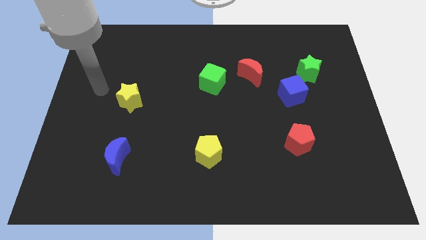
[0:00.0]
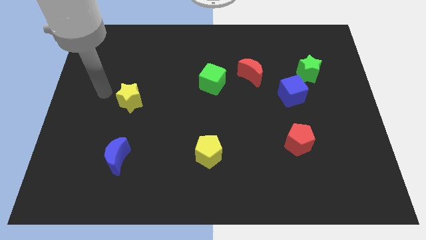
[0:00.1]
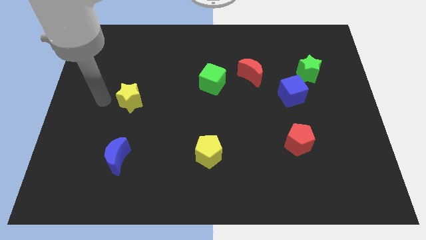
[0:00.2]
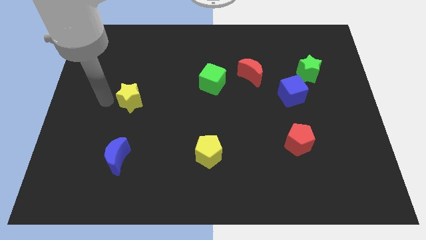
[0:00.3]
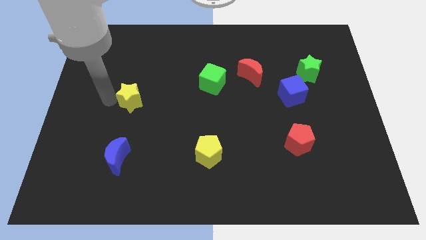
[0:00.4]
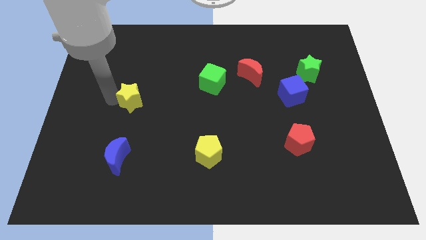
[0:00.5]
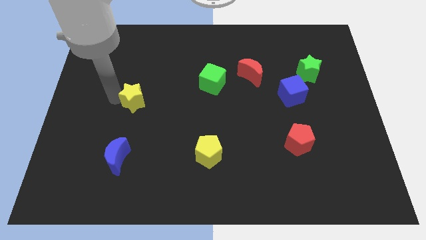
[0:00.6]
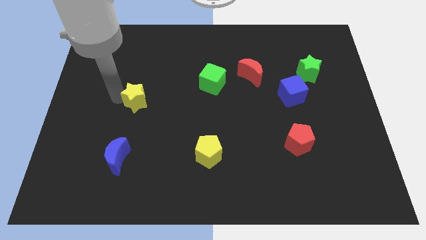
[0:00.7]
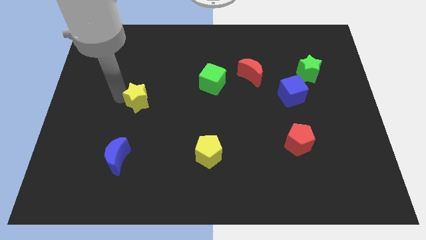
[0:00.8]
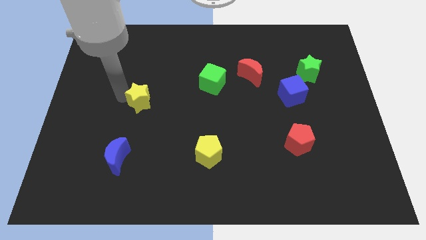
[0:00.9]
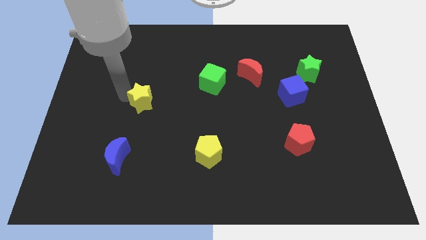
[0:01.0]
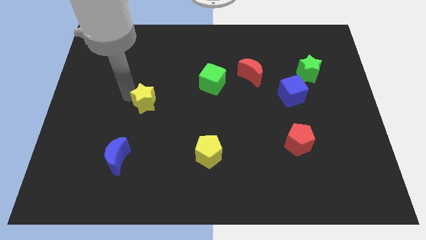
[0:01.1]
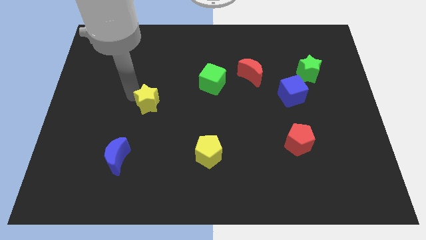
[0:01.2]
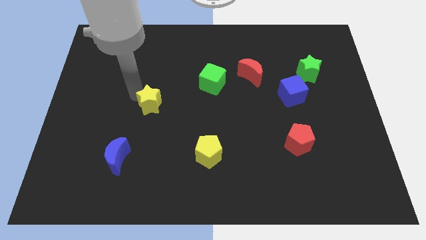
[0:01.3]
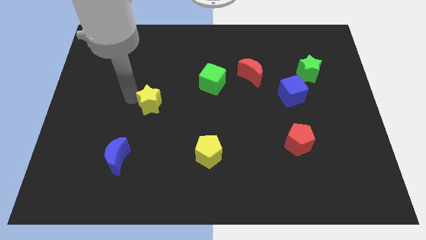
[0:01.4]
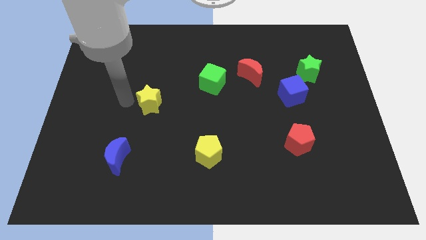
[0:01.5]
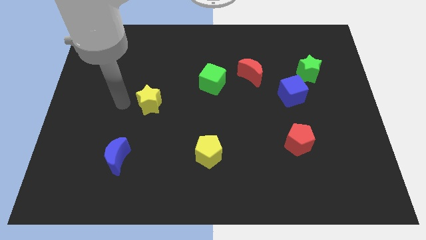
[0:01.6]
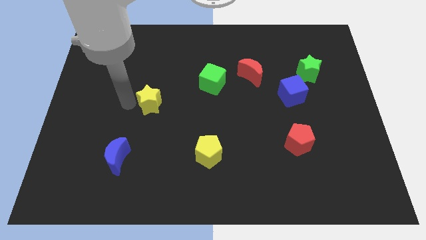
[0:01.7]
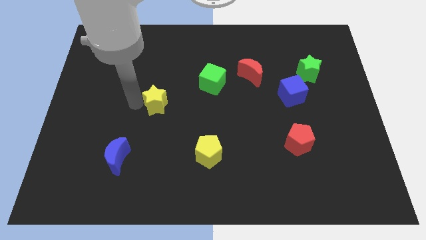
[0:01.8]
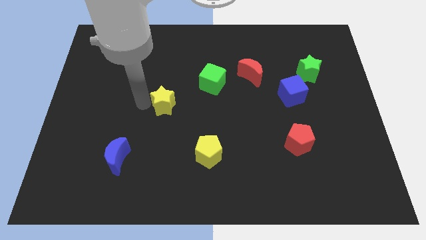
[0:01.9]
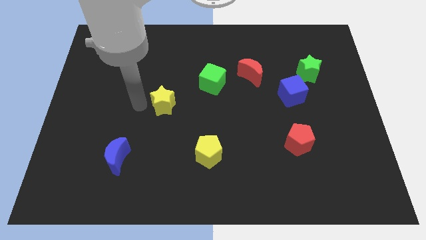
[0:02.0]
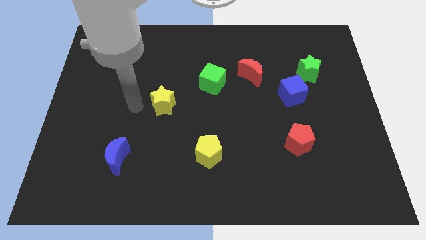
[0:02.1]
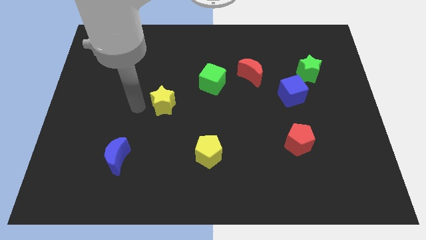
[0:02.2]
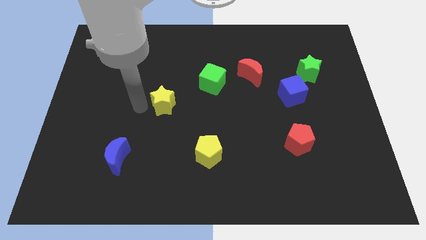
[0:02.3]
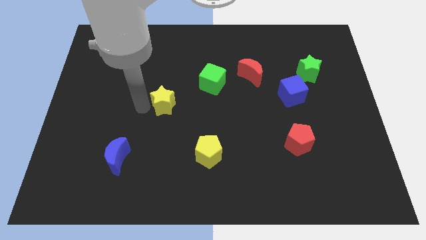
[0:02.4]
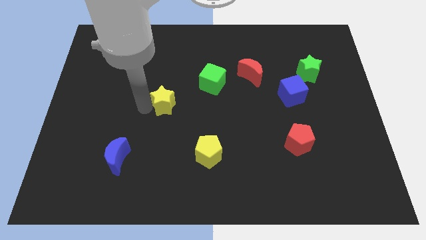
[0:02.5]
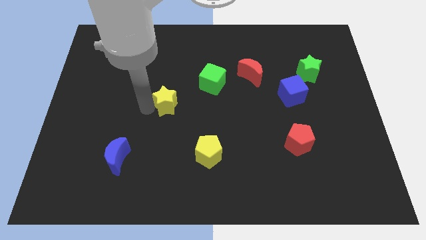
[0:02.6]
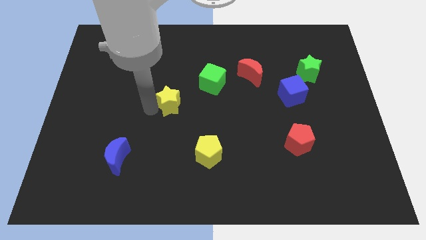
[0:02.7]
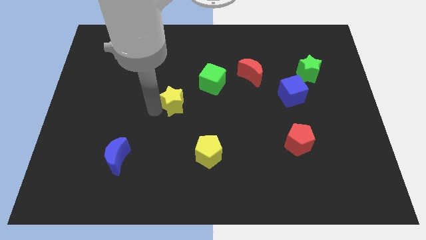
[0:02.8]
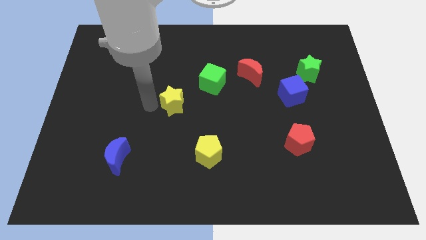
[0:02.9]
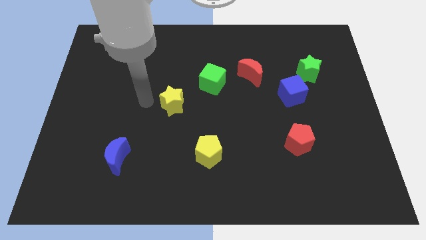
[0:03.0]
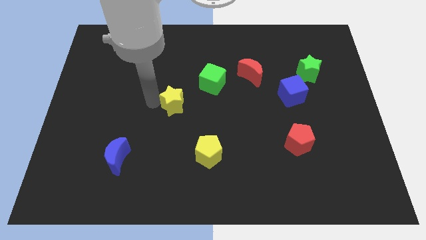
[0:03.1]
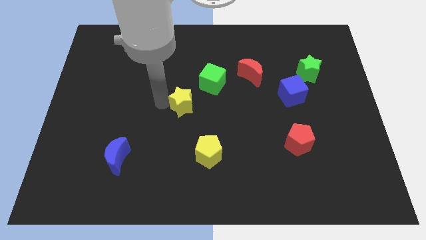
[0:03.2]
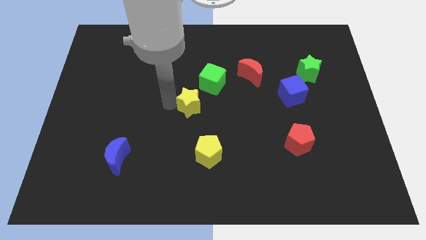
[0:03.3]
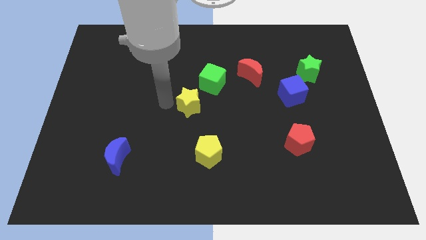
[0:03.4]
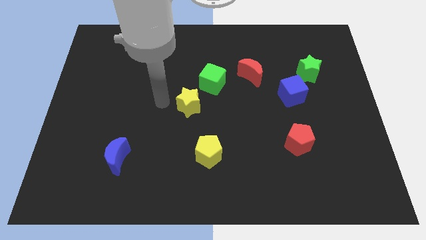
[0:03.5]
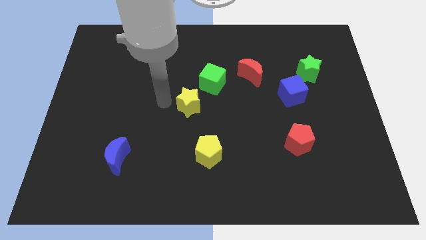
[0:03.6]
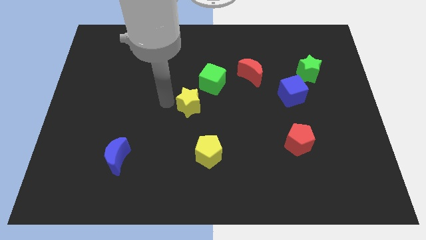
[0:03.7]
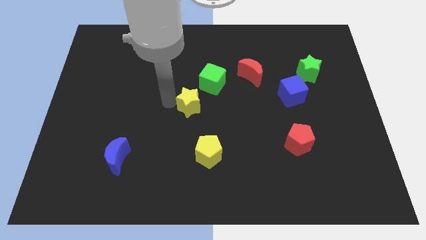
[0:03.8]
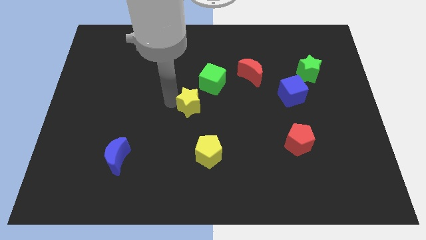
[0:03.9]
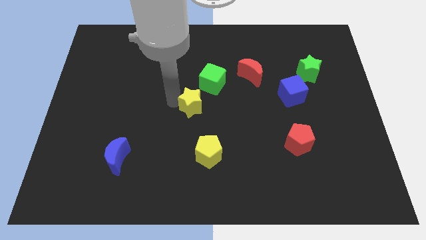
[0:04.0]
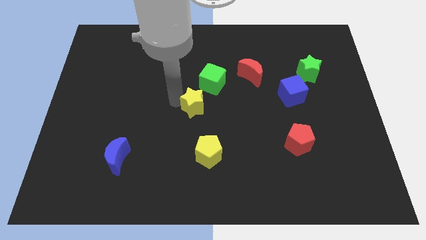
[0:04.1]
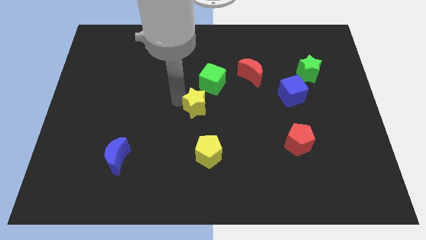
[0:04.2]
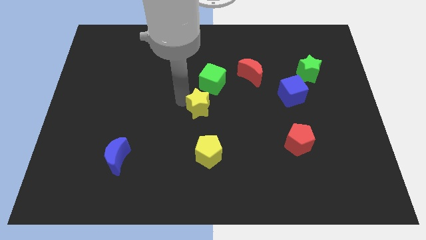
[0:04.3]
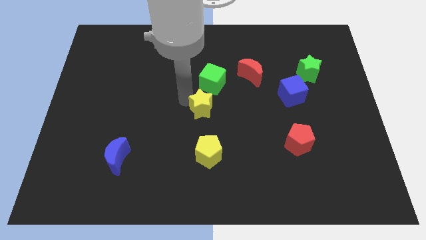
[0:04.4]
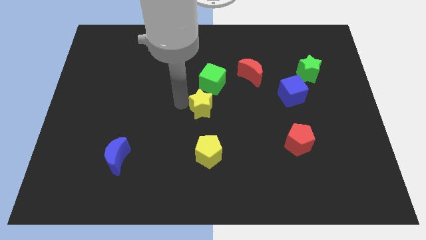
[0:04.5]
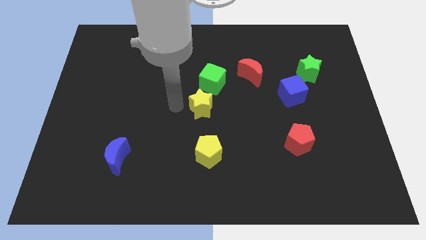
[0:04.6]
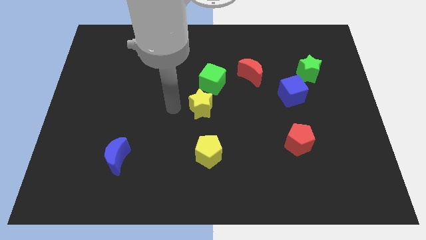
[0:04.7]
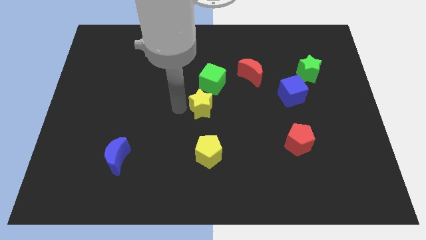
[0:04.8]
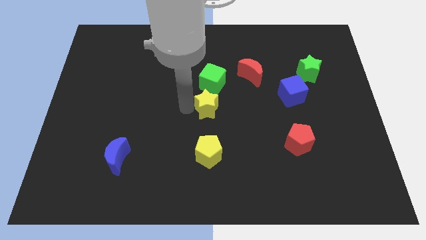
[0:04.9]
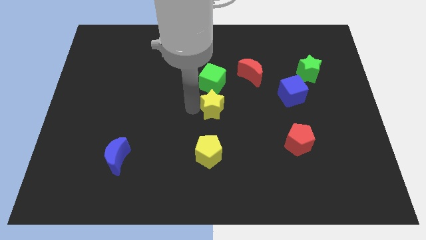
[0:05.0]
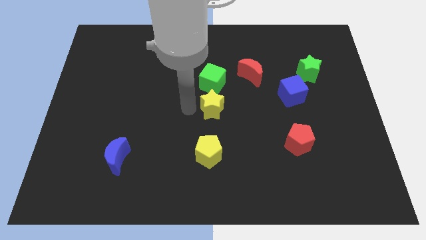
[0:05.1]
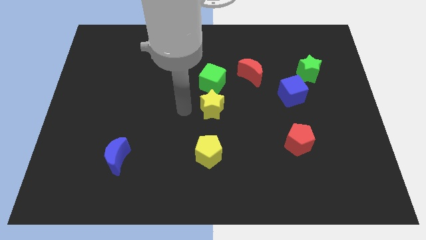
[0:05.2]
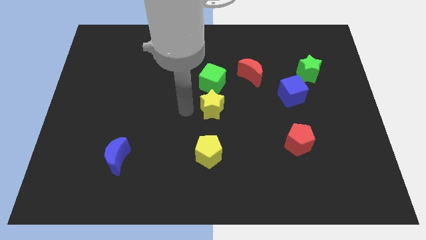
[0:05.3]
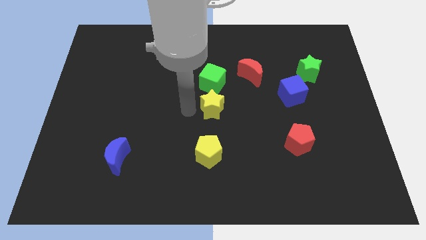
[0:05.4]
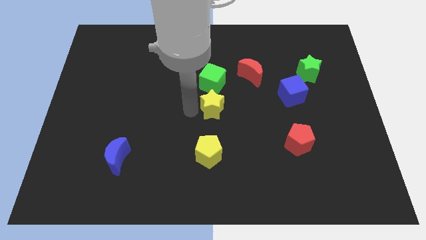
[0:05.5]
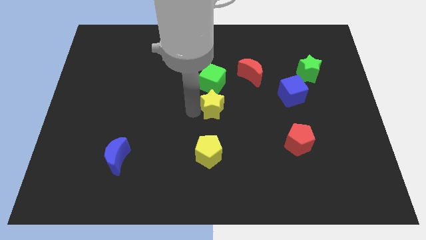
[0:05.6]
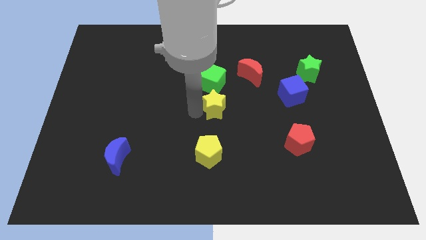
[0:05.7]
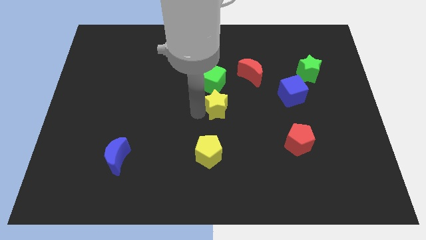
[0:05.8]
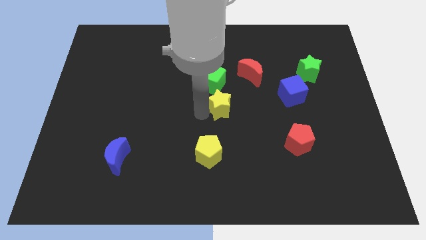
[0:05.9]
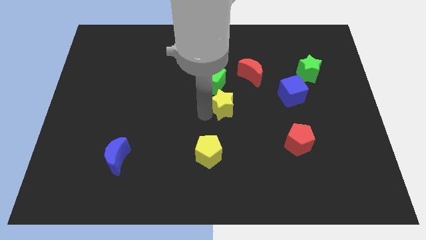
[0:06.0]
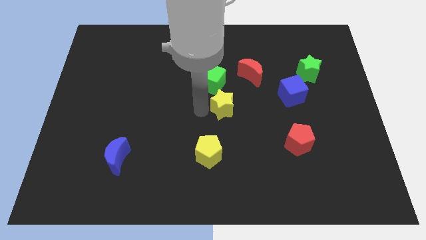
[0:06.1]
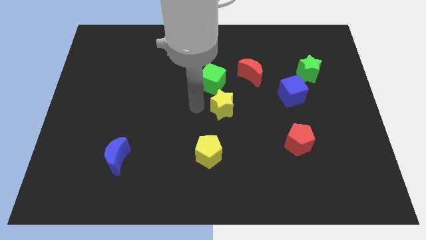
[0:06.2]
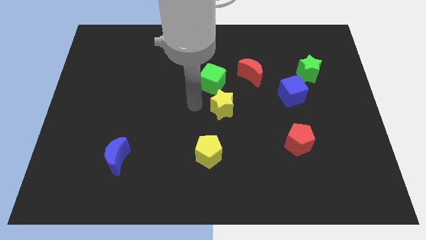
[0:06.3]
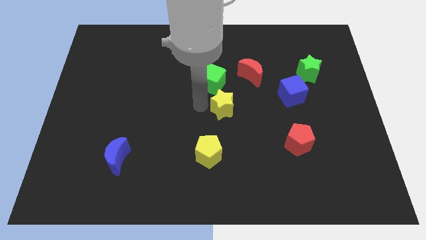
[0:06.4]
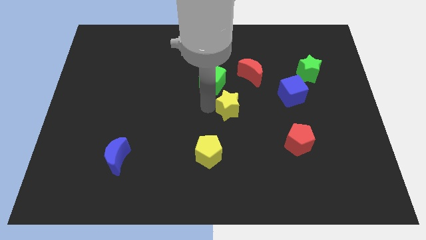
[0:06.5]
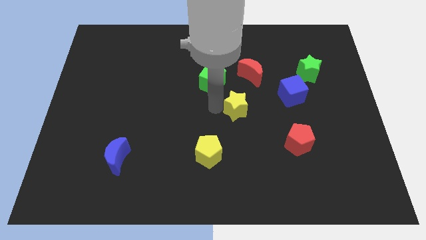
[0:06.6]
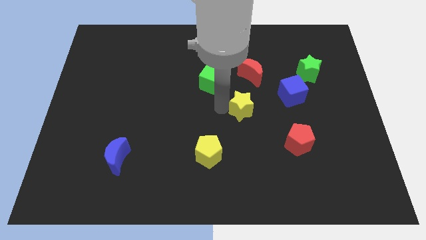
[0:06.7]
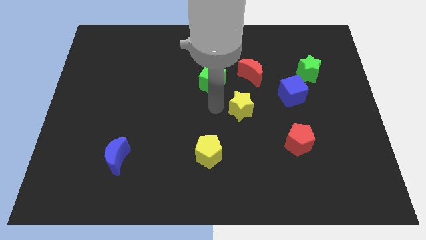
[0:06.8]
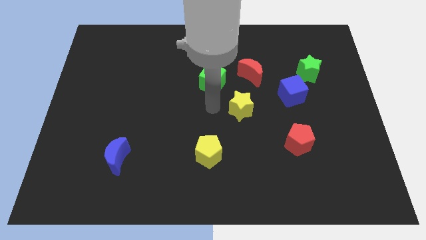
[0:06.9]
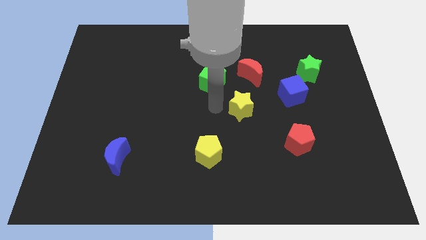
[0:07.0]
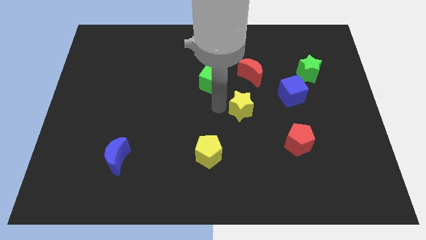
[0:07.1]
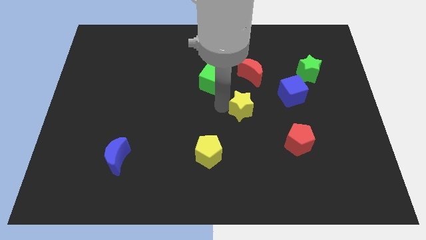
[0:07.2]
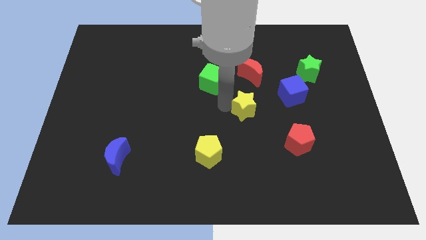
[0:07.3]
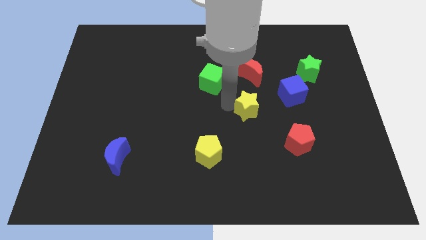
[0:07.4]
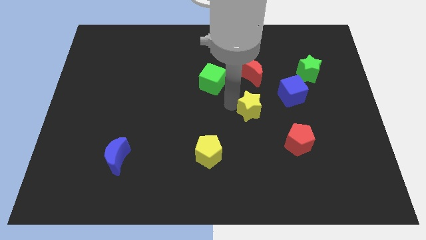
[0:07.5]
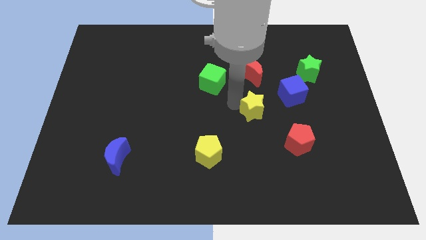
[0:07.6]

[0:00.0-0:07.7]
push the yellow star to the bottom left of the blue cube
